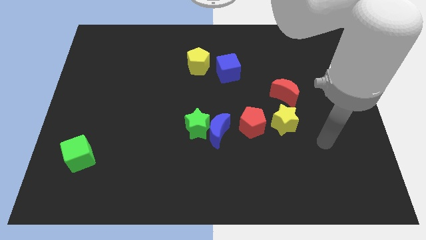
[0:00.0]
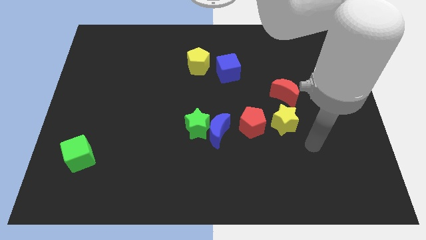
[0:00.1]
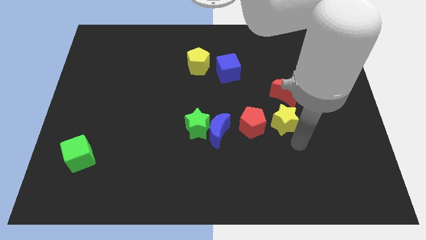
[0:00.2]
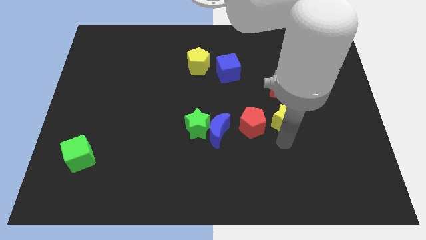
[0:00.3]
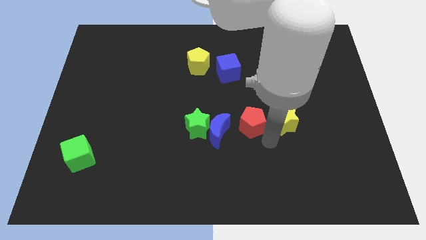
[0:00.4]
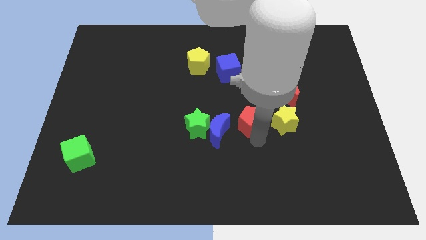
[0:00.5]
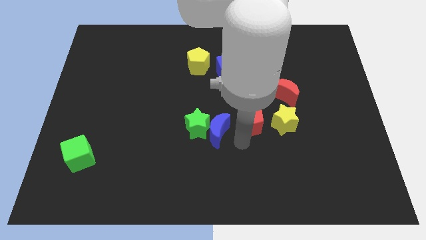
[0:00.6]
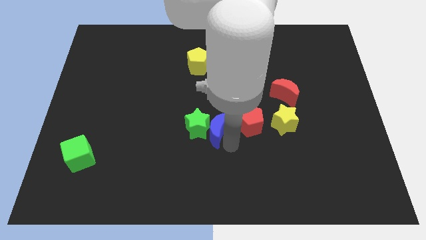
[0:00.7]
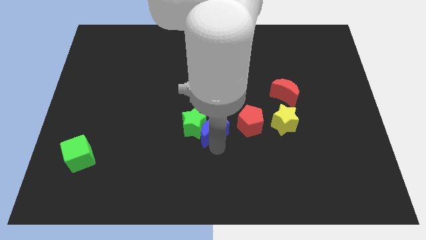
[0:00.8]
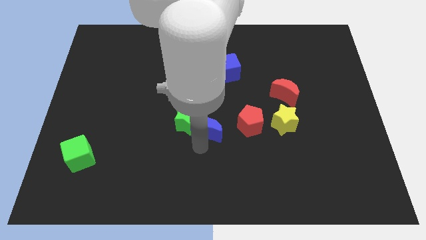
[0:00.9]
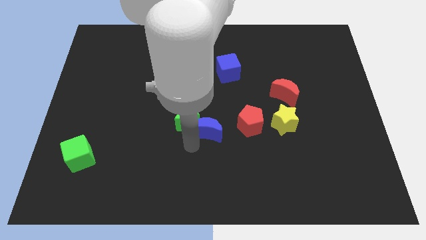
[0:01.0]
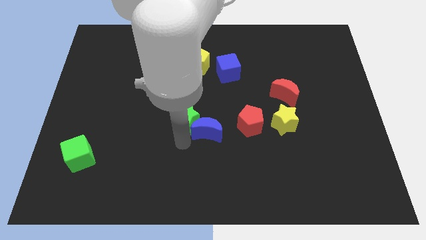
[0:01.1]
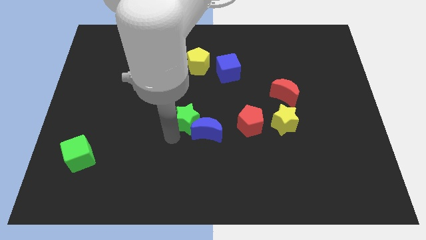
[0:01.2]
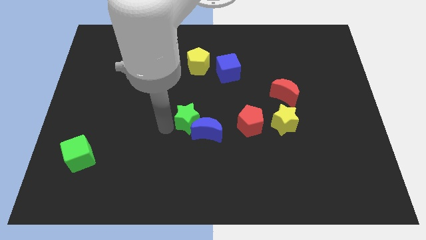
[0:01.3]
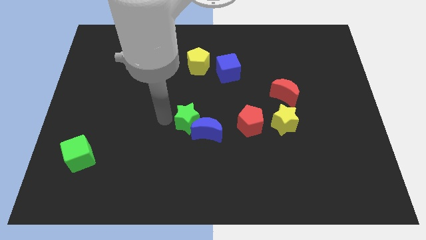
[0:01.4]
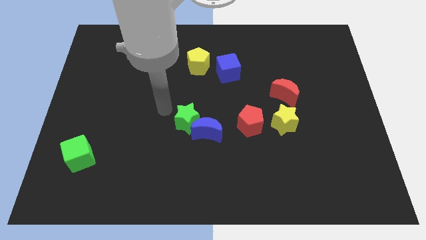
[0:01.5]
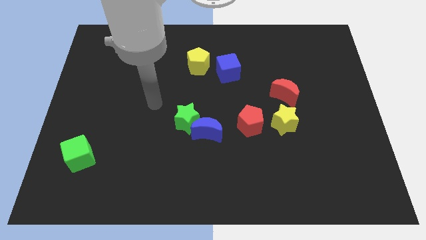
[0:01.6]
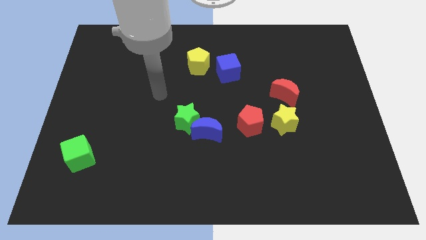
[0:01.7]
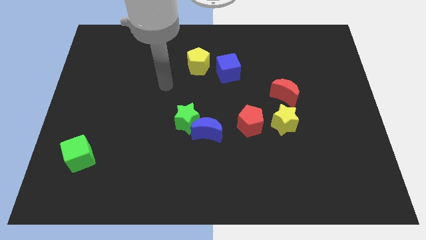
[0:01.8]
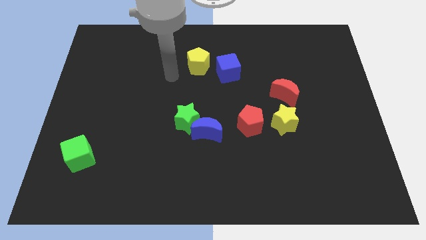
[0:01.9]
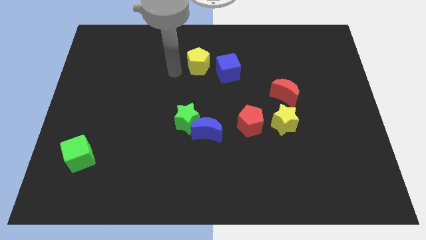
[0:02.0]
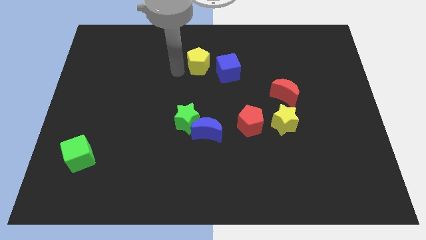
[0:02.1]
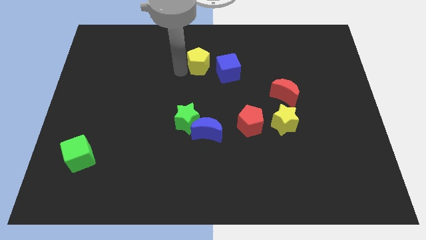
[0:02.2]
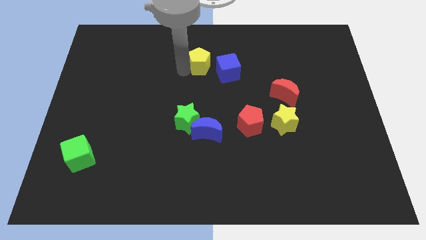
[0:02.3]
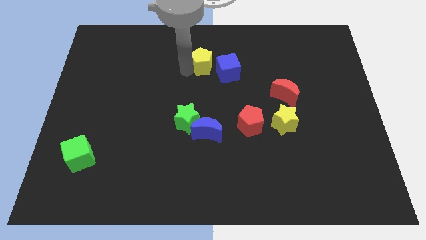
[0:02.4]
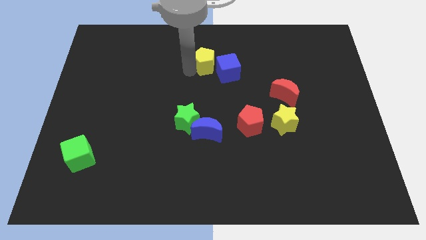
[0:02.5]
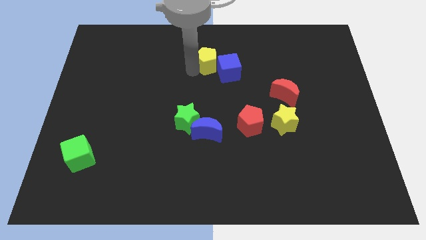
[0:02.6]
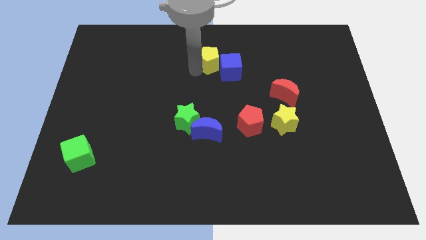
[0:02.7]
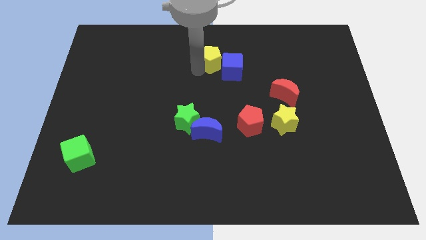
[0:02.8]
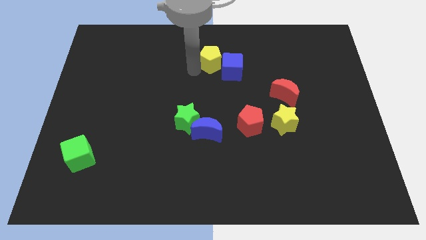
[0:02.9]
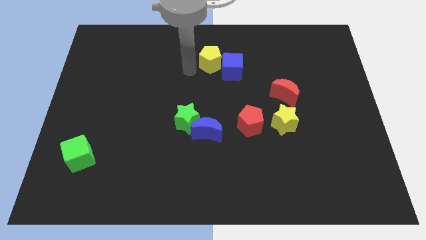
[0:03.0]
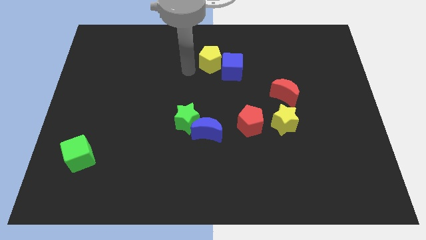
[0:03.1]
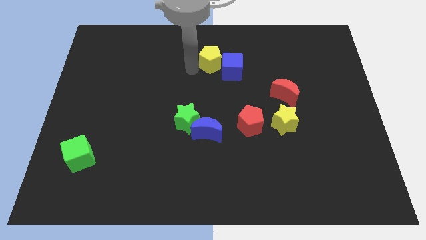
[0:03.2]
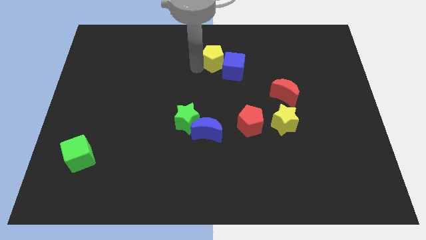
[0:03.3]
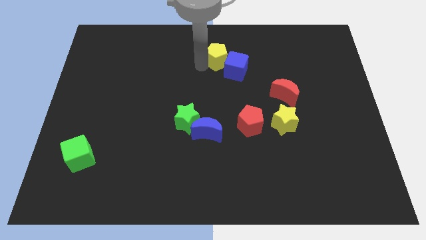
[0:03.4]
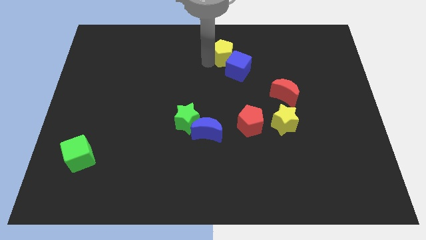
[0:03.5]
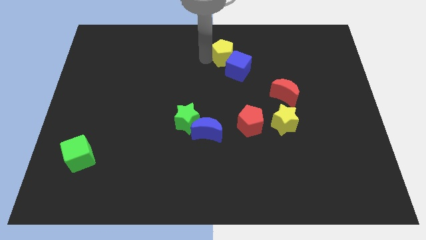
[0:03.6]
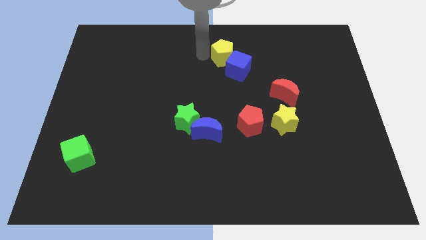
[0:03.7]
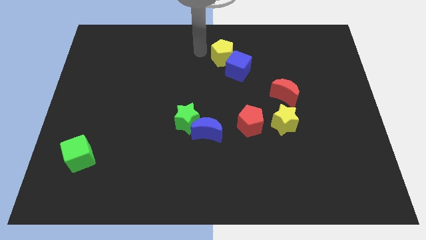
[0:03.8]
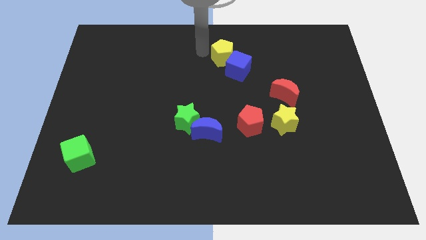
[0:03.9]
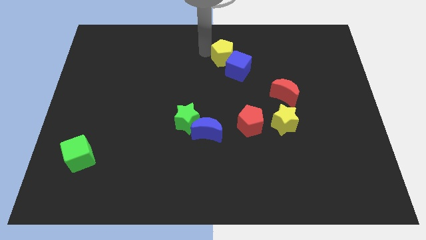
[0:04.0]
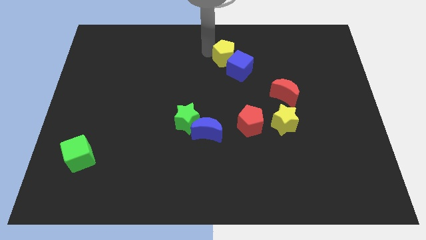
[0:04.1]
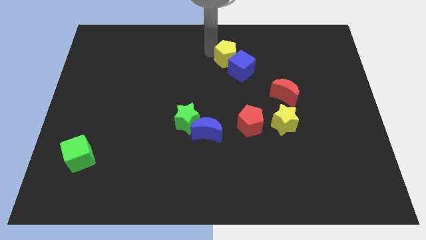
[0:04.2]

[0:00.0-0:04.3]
slide the yellow pentagon to the right a little

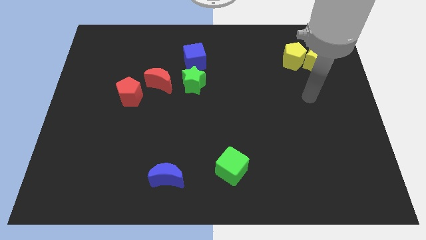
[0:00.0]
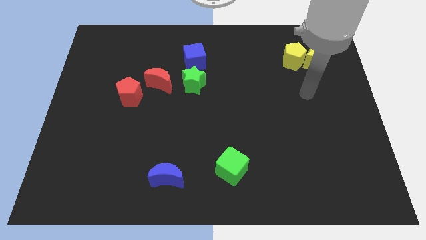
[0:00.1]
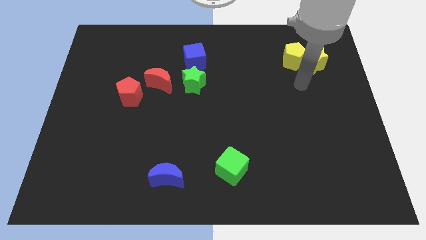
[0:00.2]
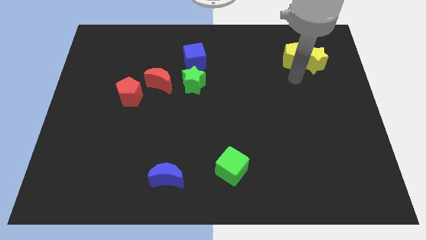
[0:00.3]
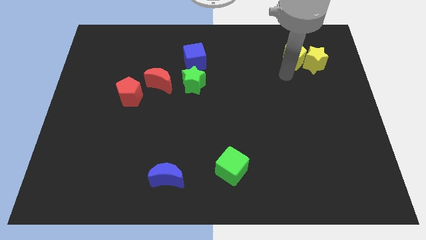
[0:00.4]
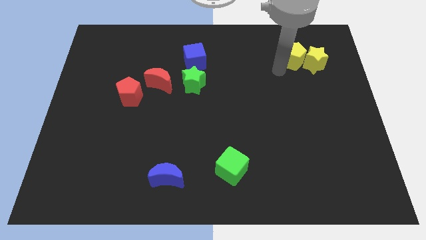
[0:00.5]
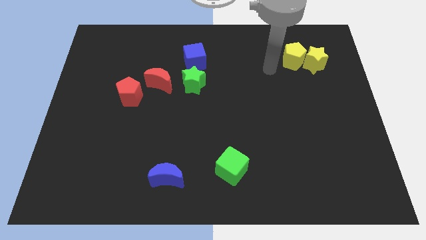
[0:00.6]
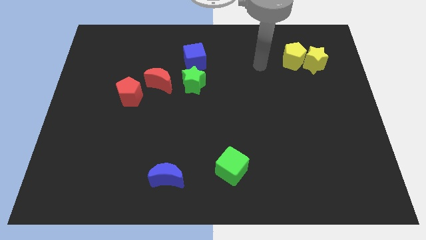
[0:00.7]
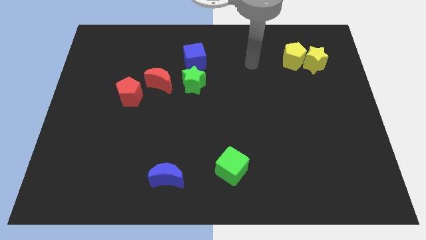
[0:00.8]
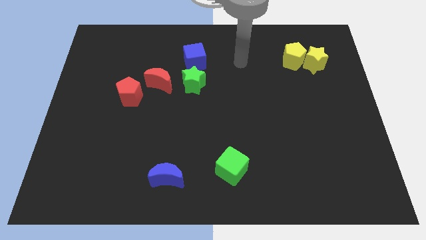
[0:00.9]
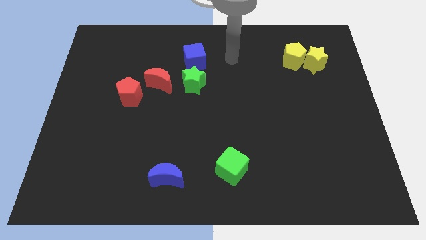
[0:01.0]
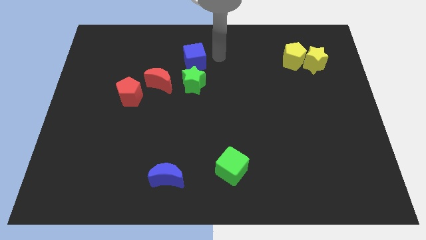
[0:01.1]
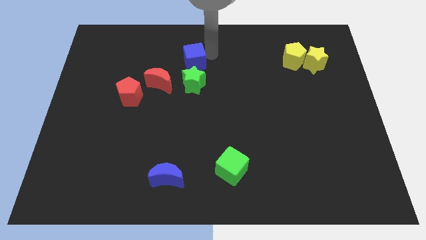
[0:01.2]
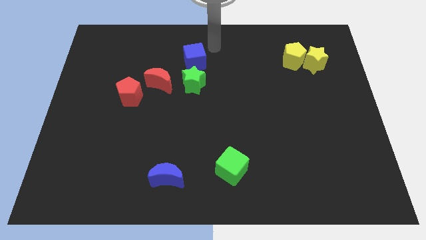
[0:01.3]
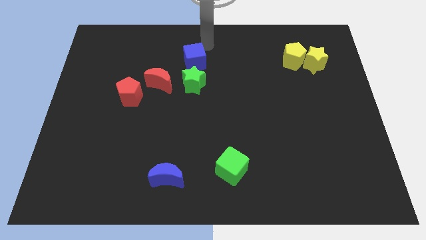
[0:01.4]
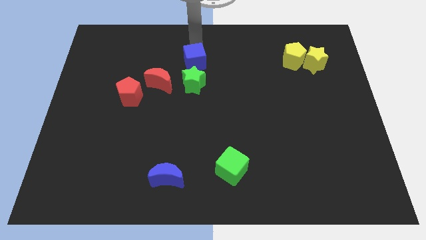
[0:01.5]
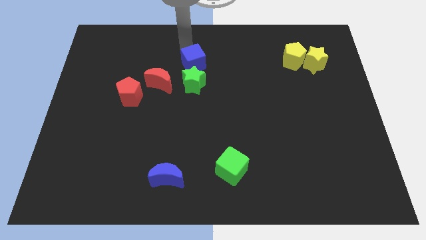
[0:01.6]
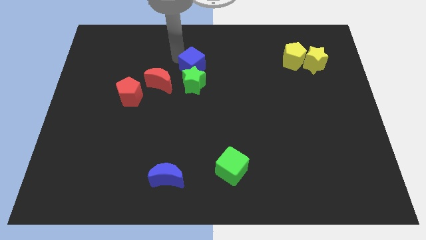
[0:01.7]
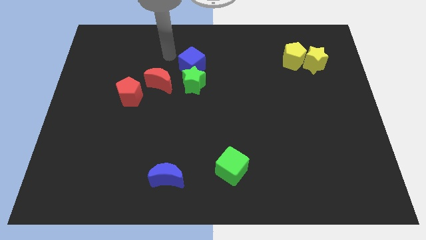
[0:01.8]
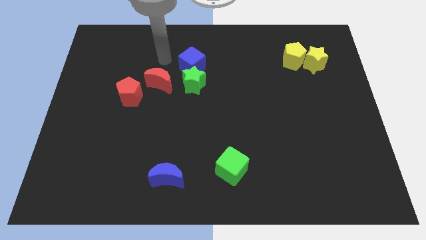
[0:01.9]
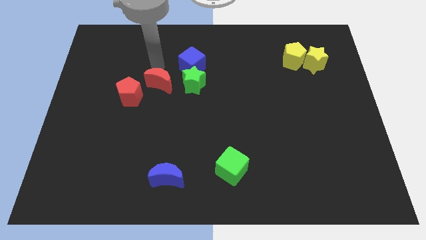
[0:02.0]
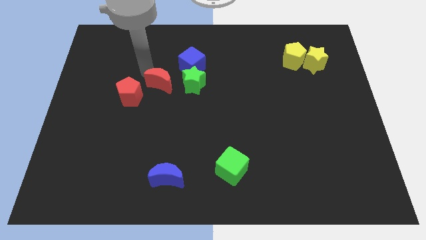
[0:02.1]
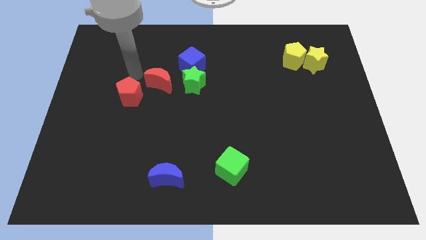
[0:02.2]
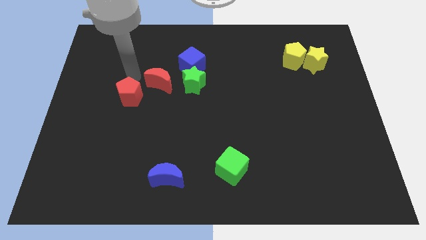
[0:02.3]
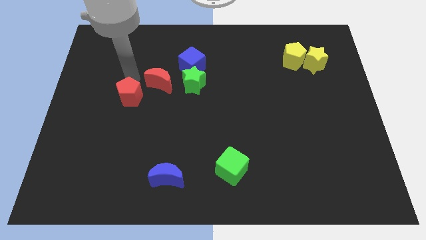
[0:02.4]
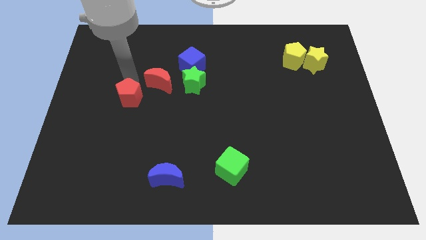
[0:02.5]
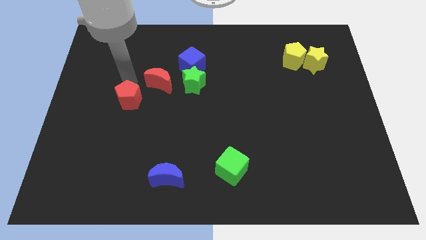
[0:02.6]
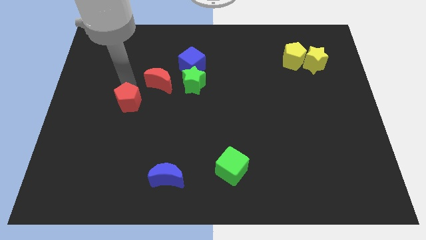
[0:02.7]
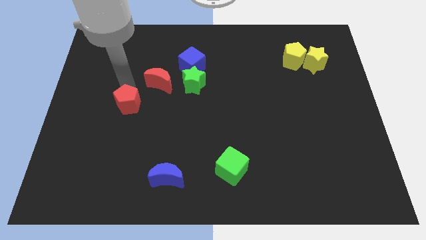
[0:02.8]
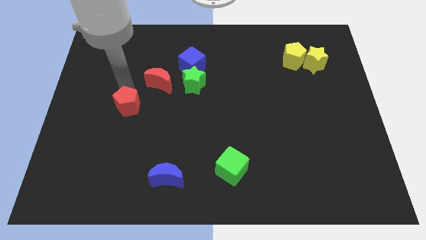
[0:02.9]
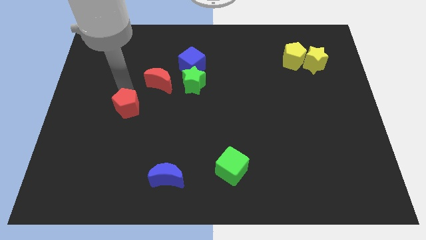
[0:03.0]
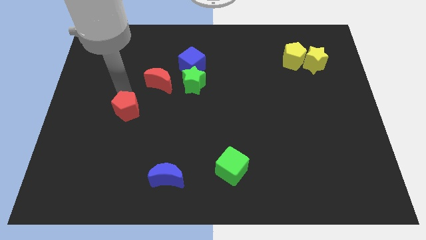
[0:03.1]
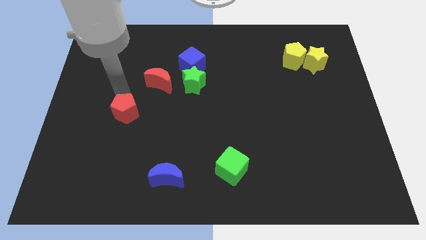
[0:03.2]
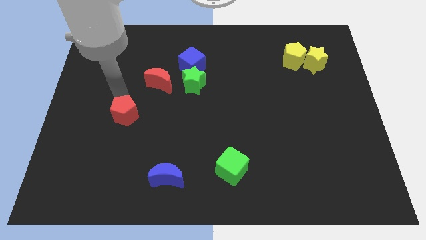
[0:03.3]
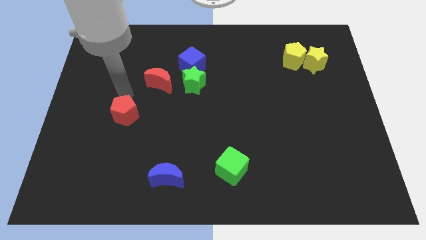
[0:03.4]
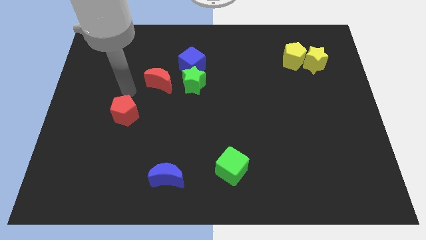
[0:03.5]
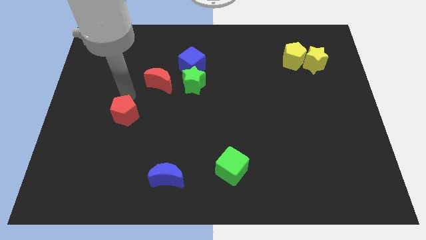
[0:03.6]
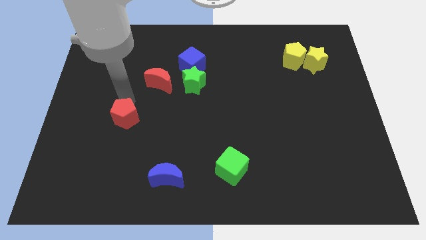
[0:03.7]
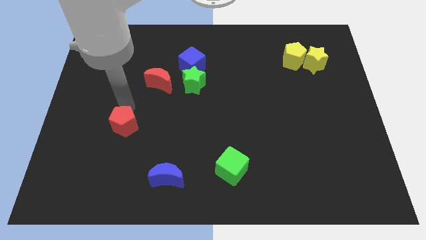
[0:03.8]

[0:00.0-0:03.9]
push the red pentagon a little bit down
